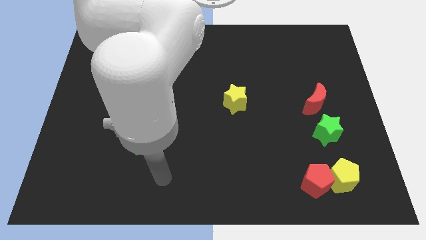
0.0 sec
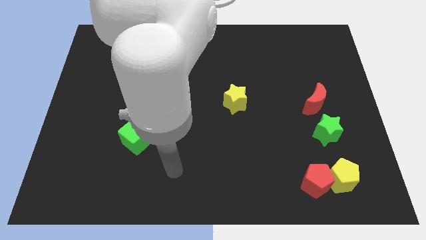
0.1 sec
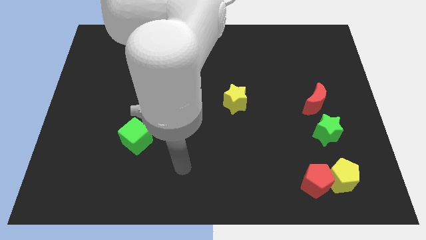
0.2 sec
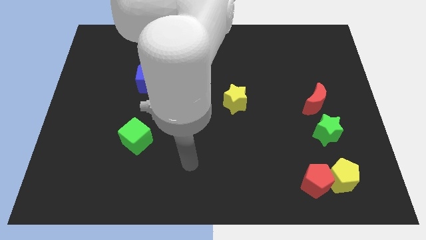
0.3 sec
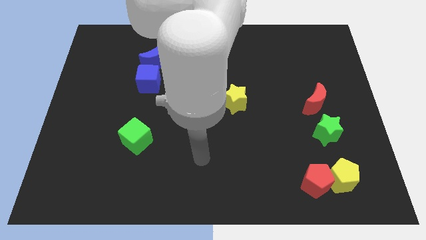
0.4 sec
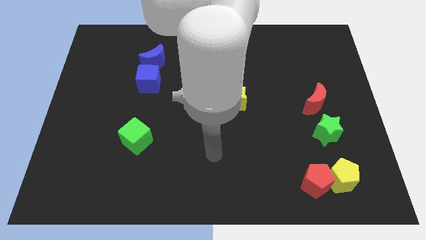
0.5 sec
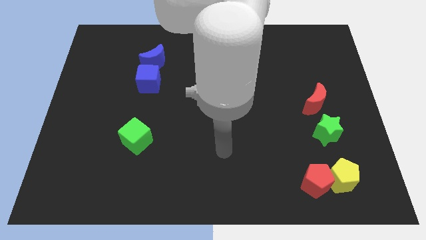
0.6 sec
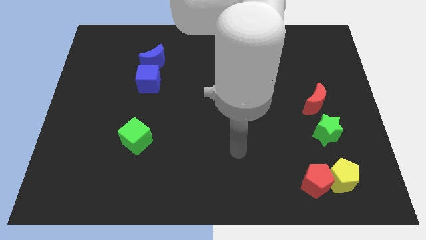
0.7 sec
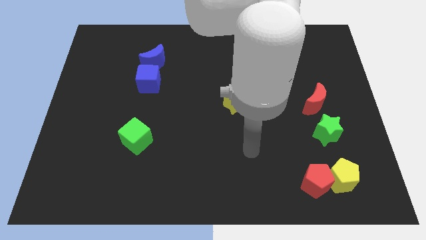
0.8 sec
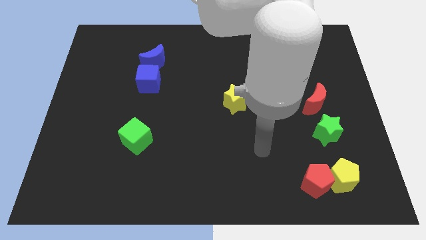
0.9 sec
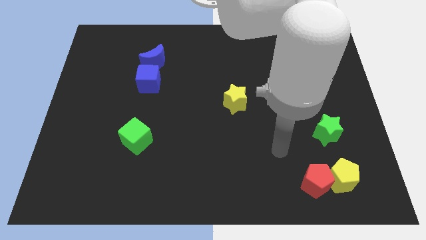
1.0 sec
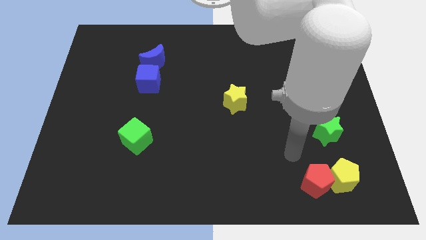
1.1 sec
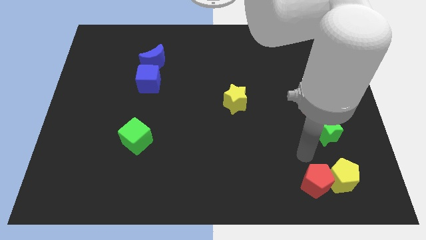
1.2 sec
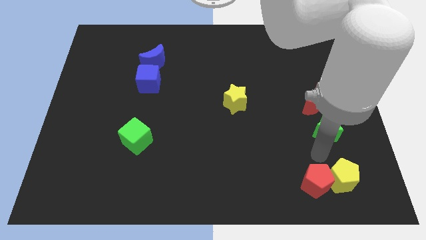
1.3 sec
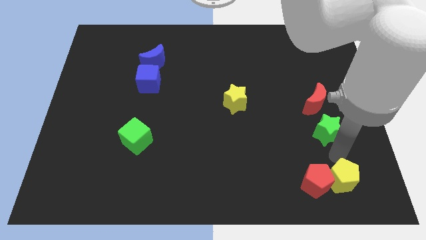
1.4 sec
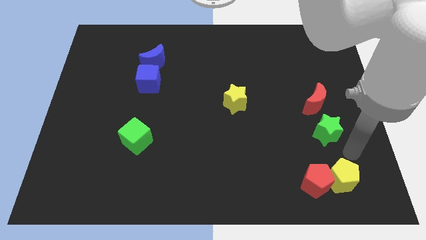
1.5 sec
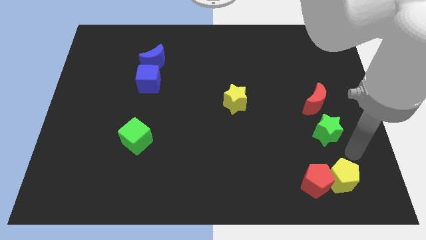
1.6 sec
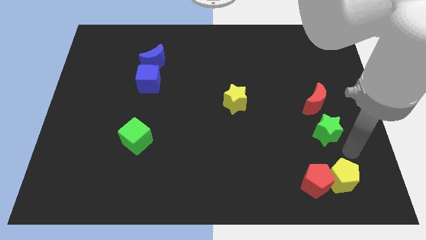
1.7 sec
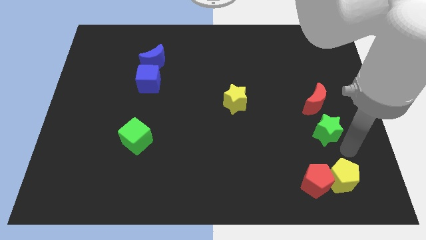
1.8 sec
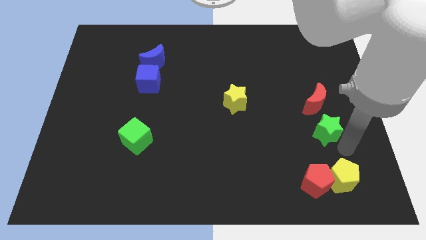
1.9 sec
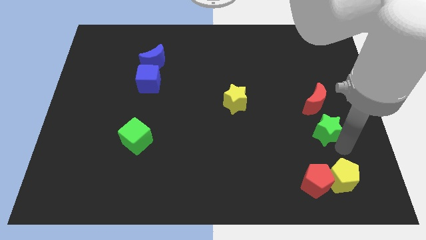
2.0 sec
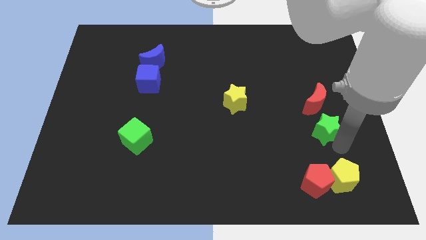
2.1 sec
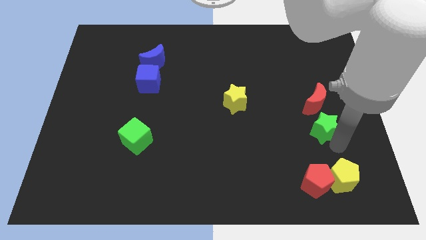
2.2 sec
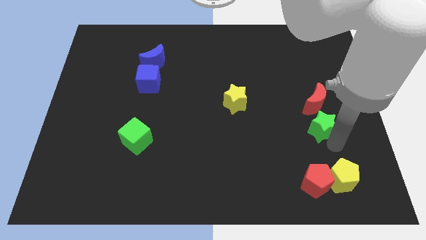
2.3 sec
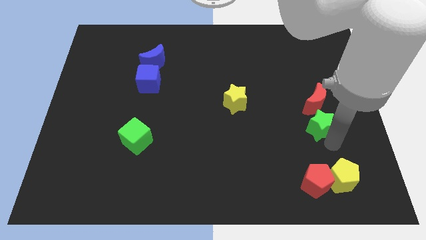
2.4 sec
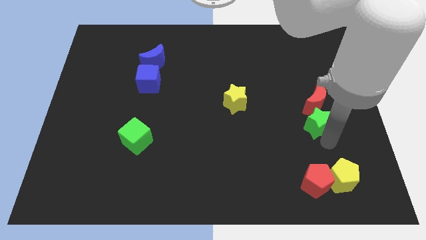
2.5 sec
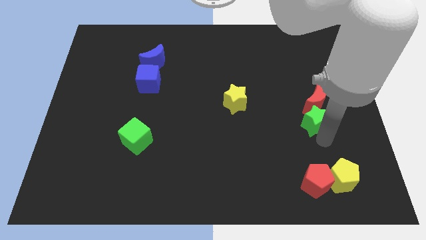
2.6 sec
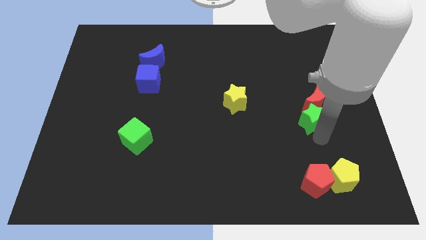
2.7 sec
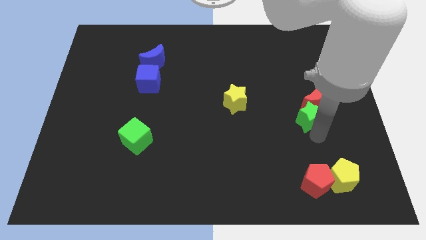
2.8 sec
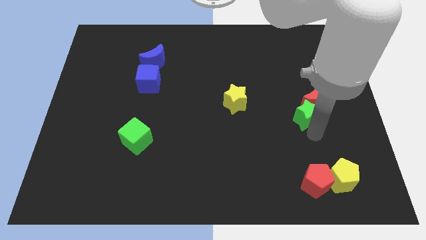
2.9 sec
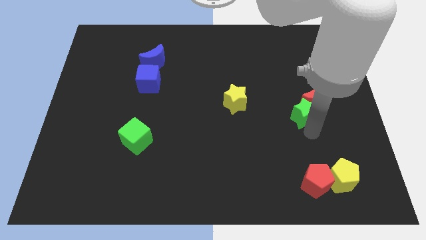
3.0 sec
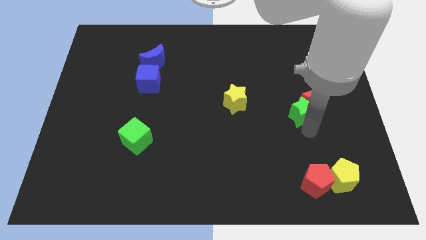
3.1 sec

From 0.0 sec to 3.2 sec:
slightly push the green star up and left

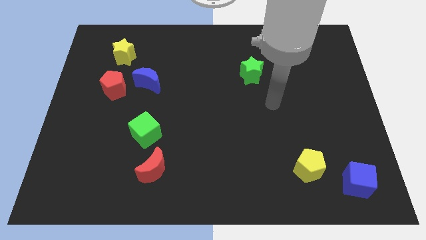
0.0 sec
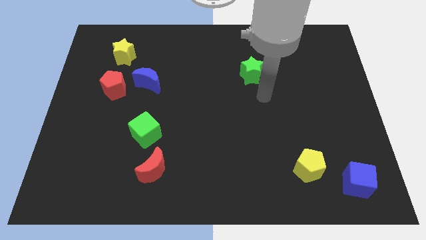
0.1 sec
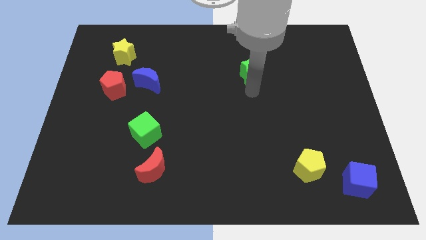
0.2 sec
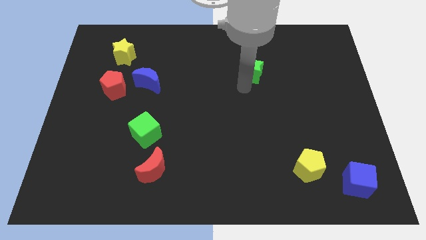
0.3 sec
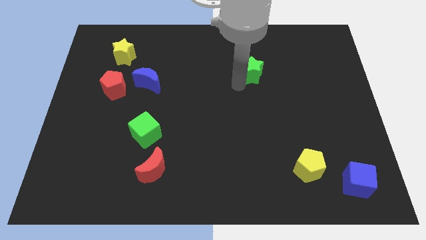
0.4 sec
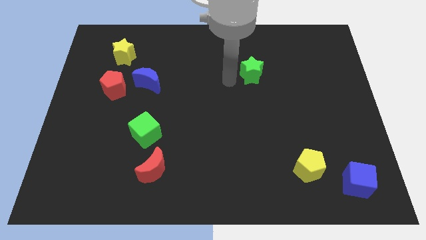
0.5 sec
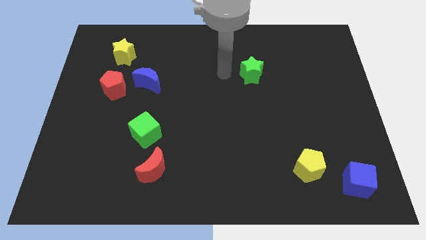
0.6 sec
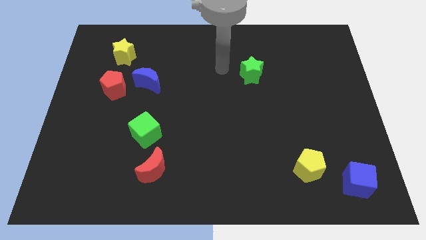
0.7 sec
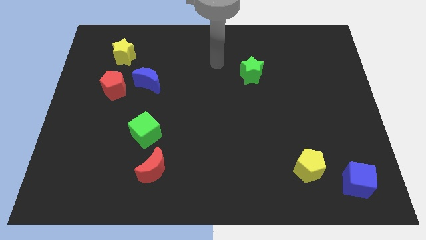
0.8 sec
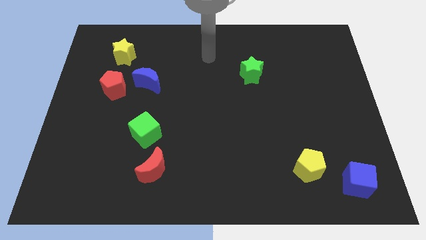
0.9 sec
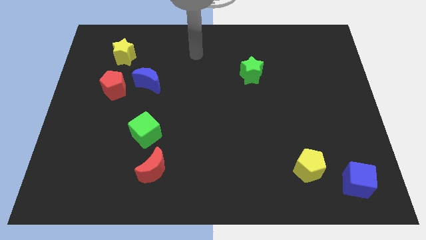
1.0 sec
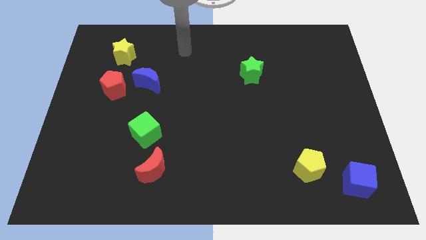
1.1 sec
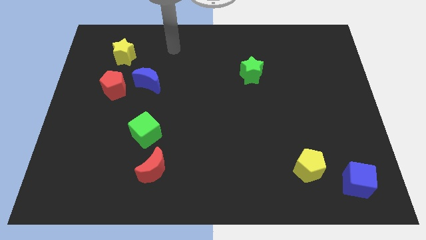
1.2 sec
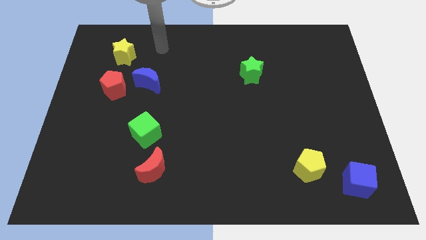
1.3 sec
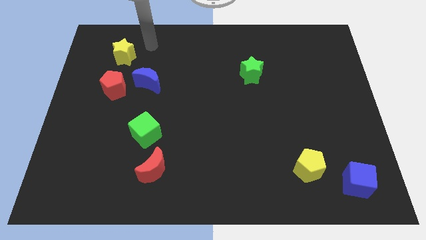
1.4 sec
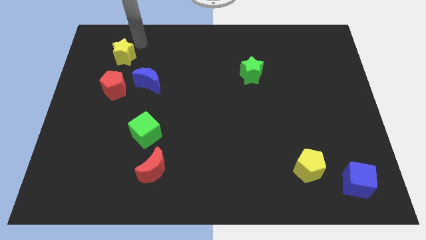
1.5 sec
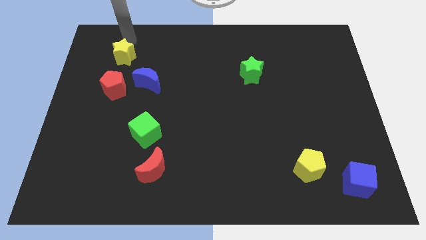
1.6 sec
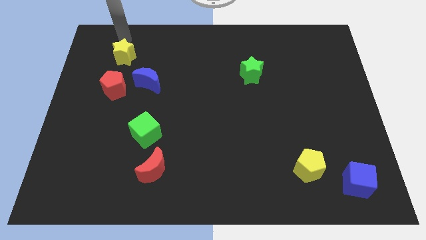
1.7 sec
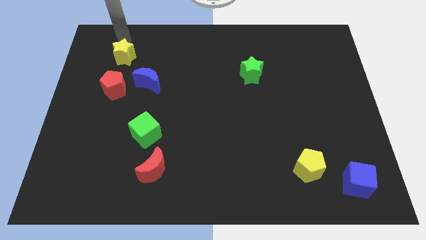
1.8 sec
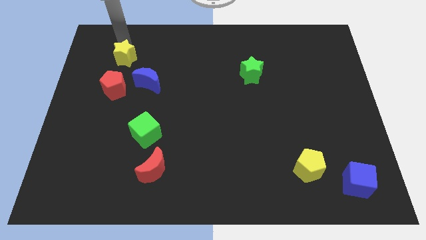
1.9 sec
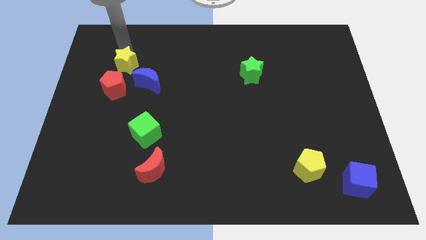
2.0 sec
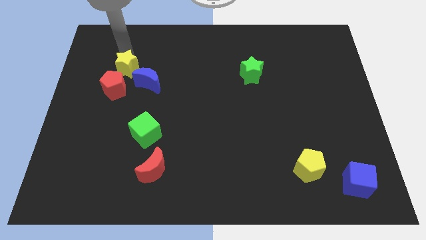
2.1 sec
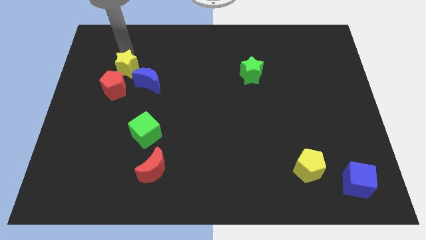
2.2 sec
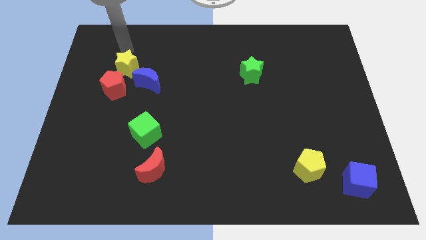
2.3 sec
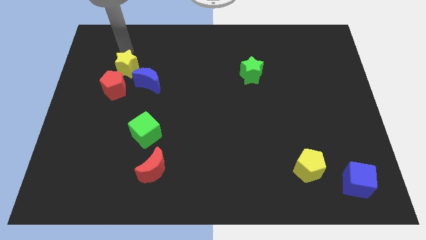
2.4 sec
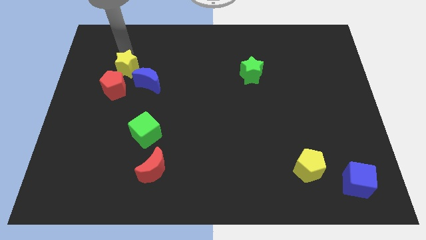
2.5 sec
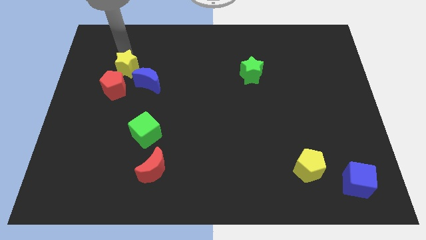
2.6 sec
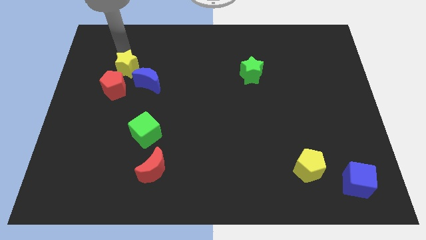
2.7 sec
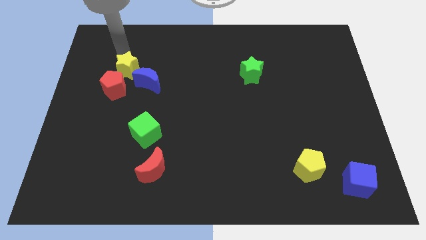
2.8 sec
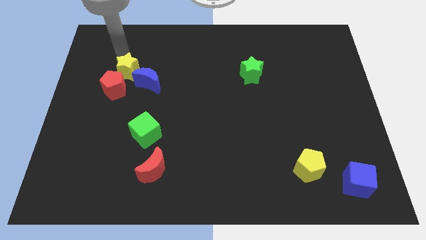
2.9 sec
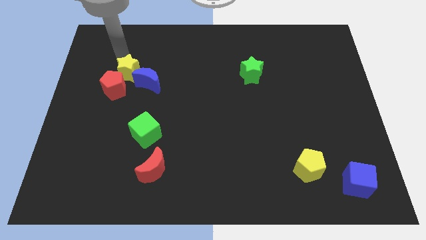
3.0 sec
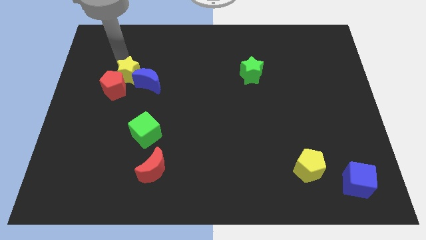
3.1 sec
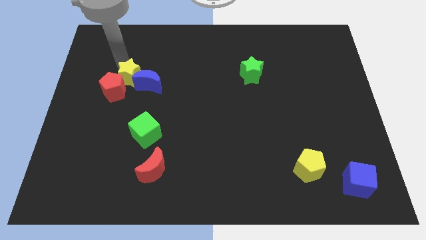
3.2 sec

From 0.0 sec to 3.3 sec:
slightly move the yellow star down

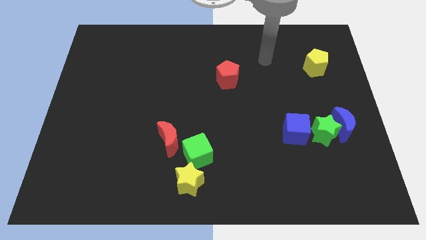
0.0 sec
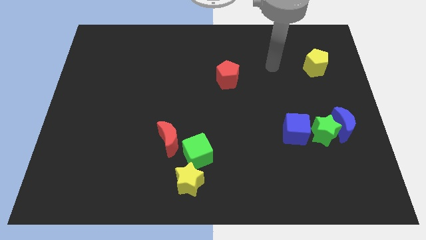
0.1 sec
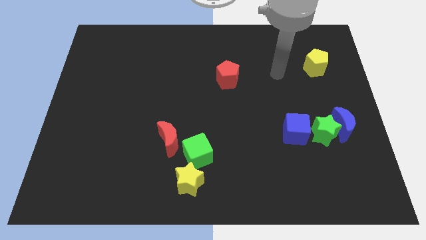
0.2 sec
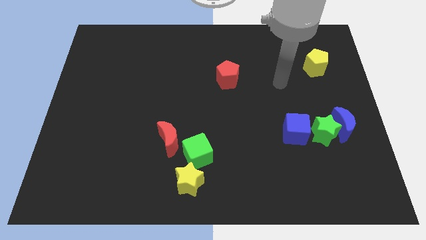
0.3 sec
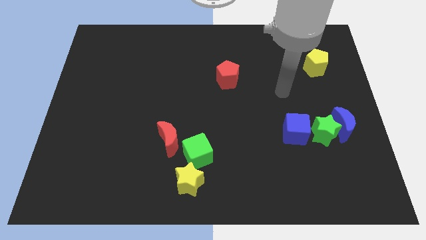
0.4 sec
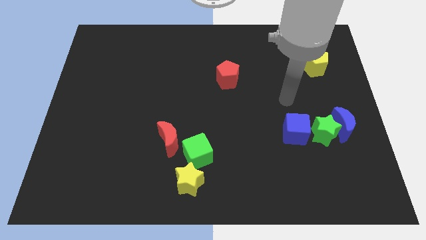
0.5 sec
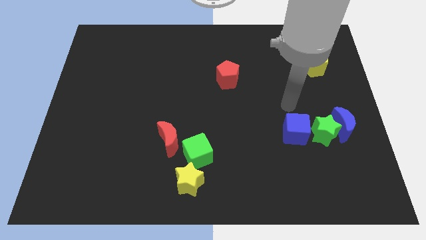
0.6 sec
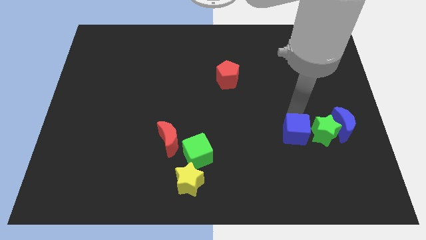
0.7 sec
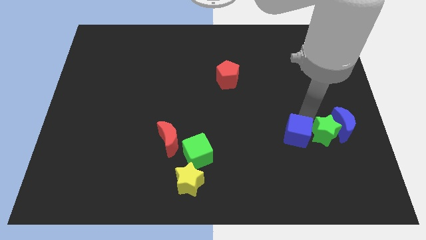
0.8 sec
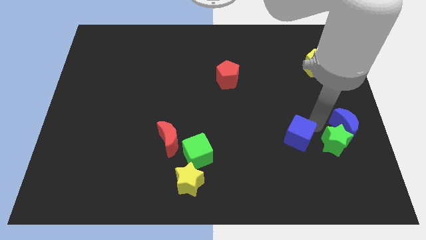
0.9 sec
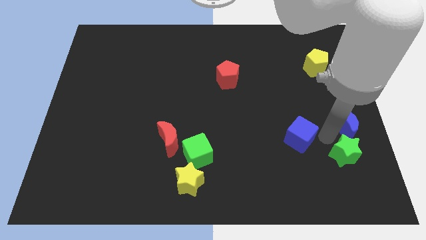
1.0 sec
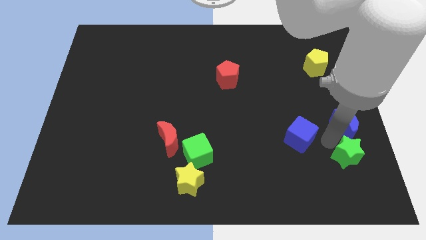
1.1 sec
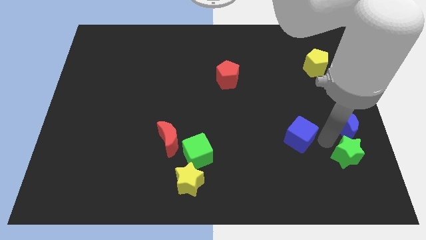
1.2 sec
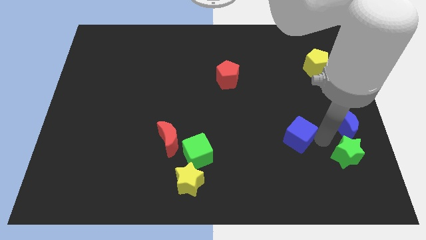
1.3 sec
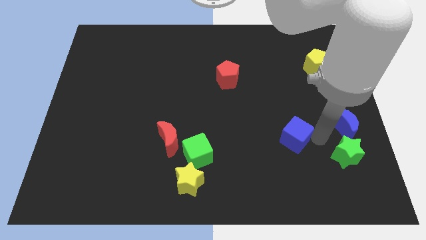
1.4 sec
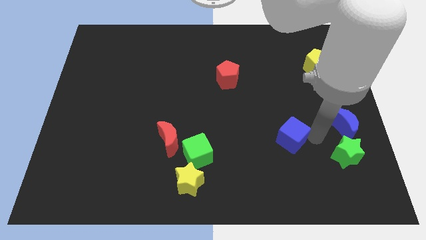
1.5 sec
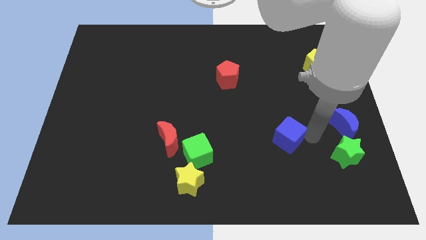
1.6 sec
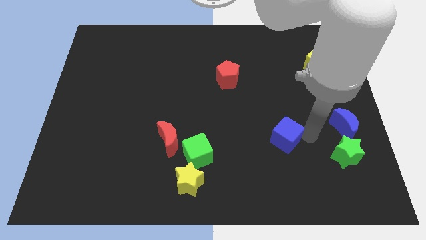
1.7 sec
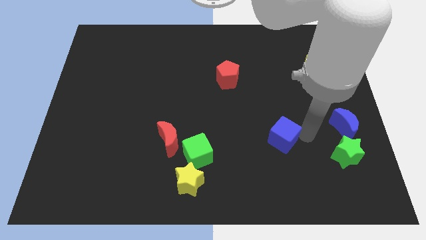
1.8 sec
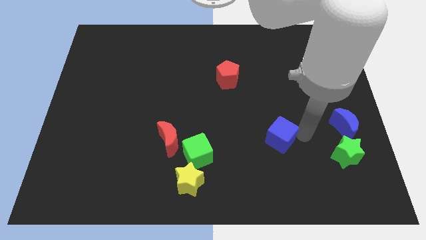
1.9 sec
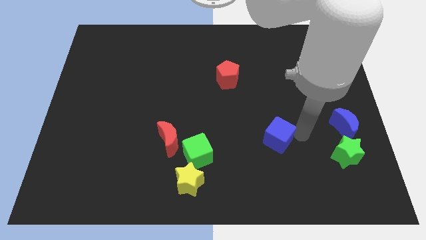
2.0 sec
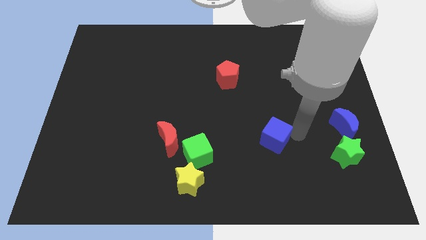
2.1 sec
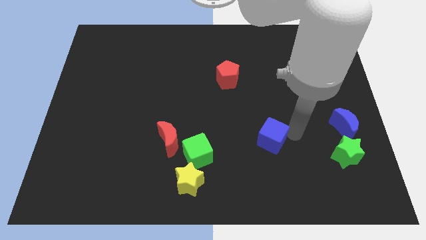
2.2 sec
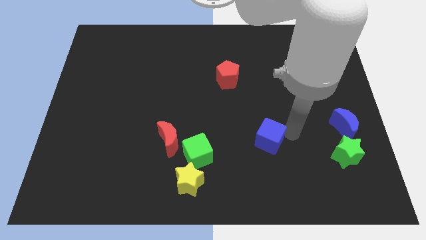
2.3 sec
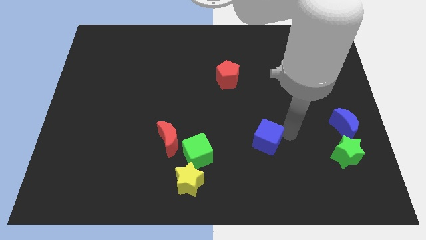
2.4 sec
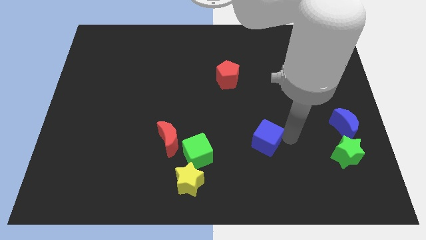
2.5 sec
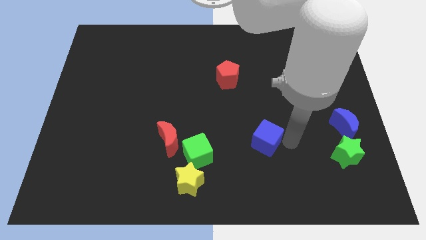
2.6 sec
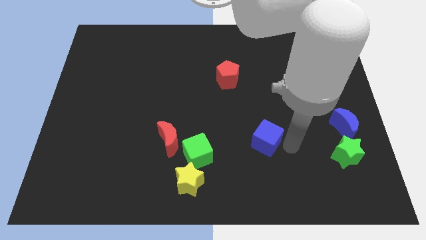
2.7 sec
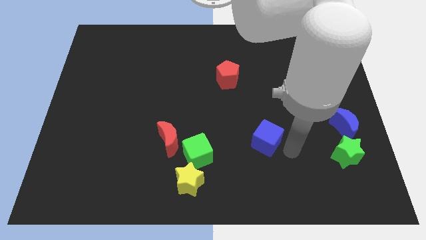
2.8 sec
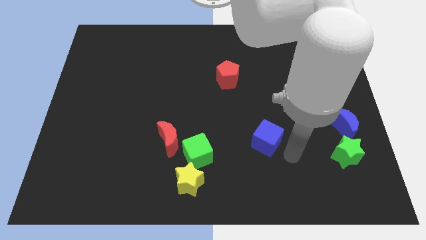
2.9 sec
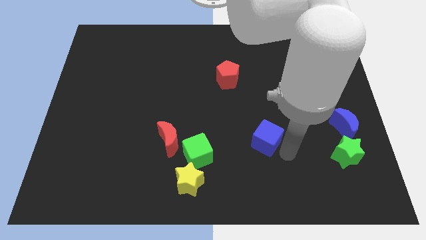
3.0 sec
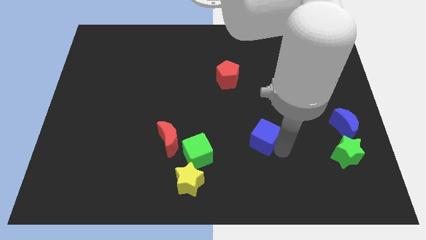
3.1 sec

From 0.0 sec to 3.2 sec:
move the blue cube left somewhat
